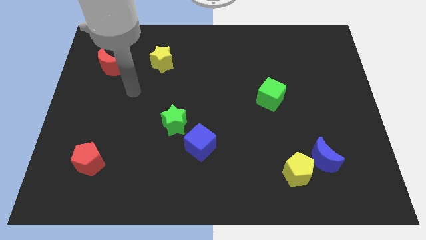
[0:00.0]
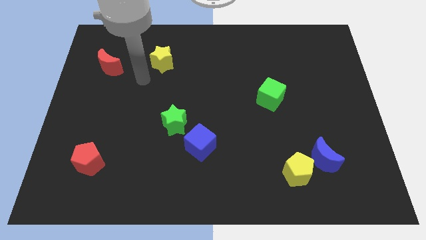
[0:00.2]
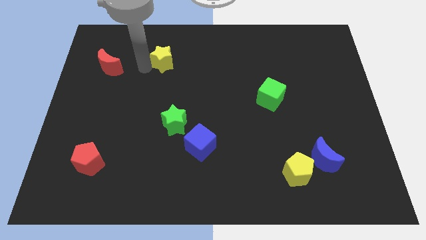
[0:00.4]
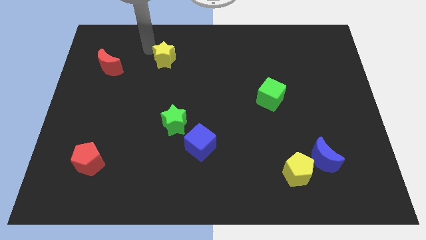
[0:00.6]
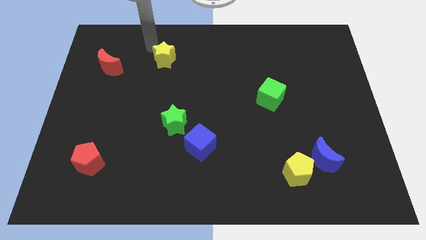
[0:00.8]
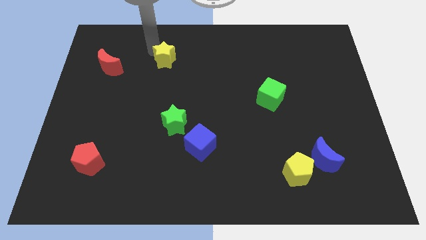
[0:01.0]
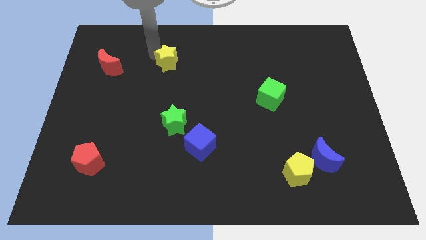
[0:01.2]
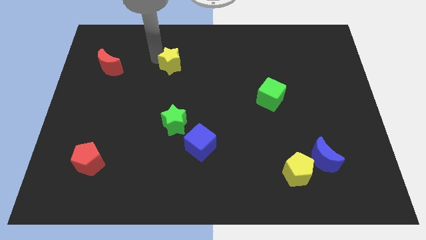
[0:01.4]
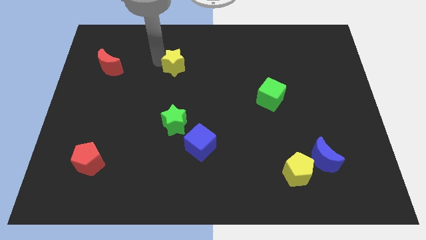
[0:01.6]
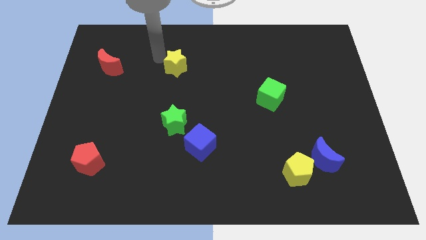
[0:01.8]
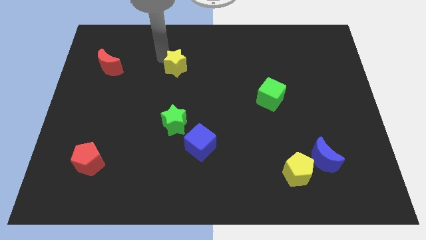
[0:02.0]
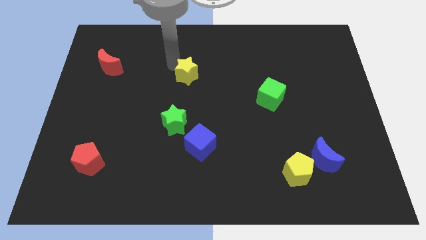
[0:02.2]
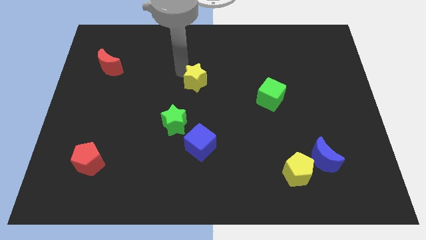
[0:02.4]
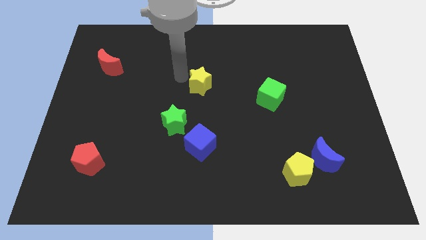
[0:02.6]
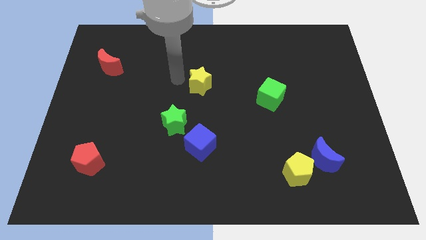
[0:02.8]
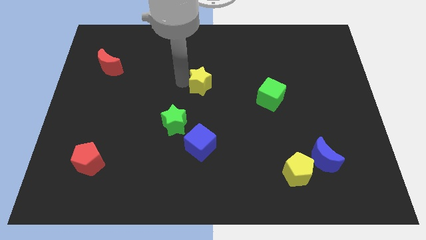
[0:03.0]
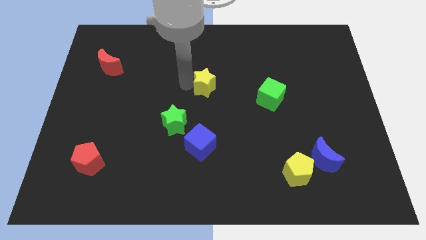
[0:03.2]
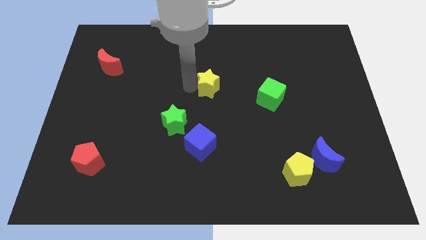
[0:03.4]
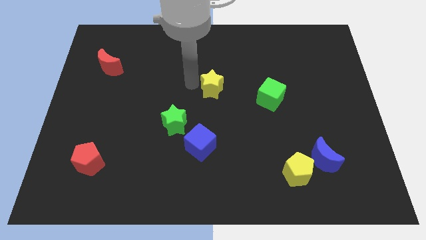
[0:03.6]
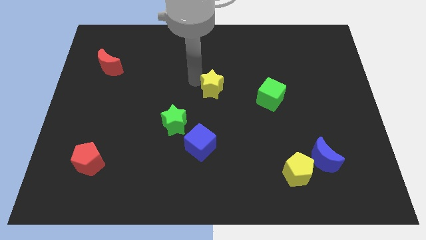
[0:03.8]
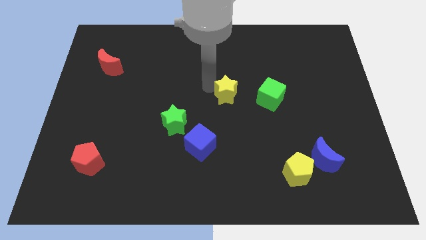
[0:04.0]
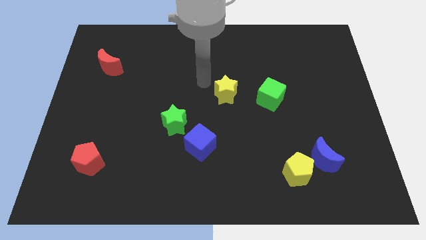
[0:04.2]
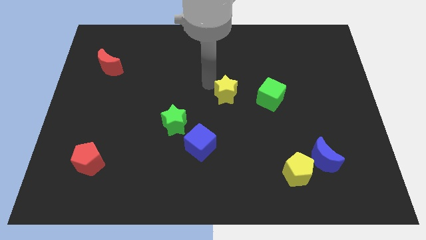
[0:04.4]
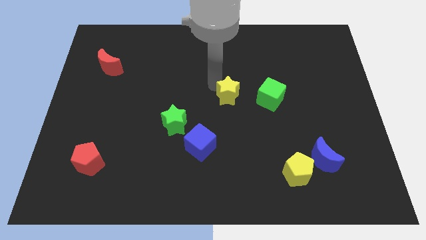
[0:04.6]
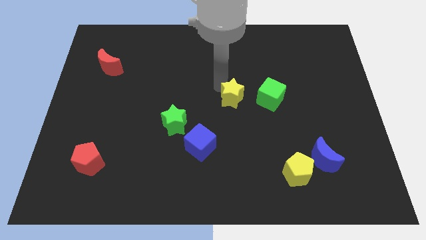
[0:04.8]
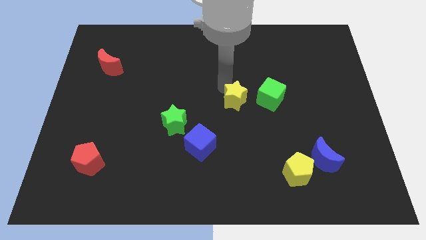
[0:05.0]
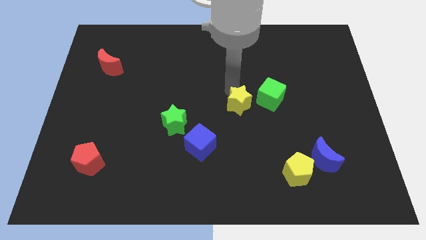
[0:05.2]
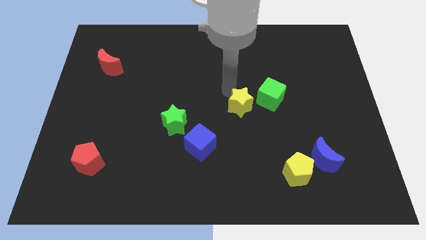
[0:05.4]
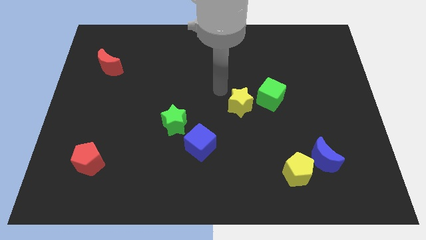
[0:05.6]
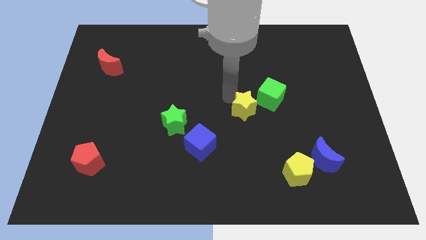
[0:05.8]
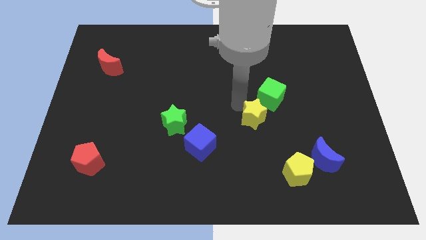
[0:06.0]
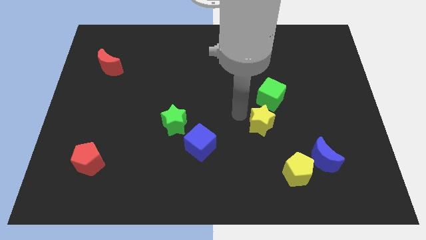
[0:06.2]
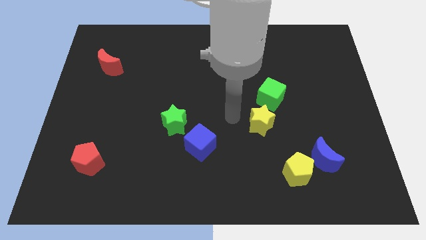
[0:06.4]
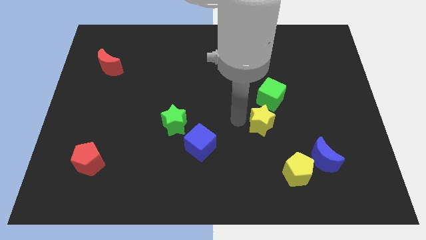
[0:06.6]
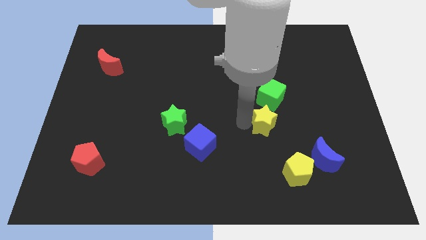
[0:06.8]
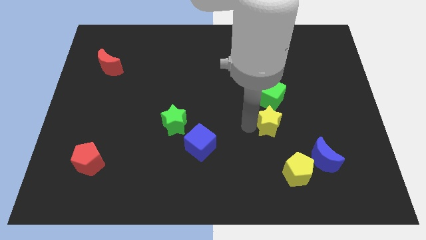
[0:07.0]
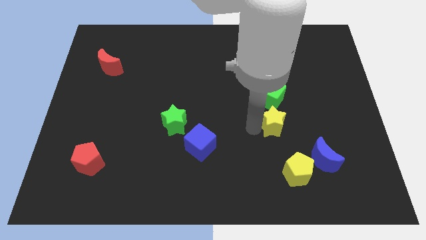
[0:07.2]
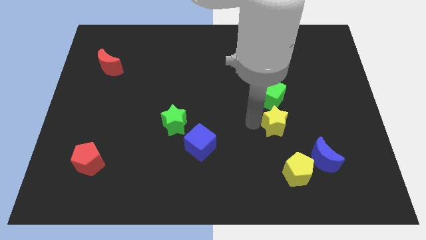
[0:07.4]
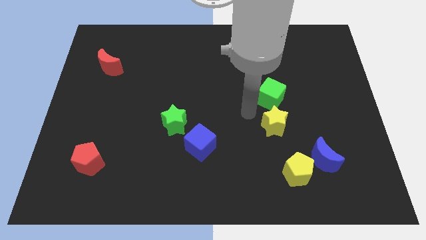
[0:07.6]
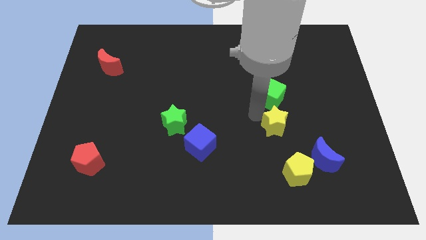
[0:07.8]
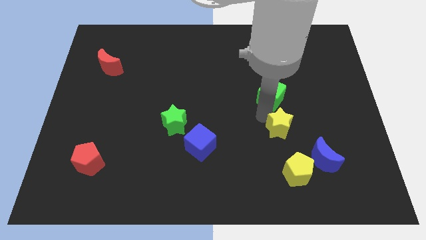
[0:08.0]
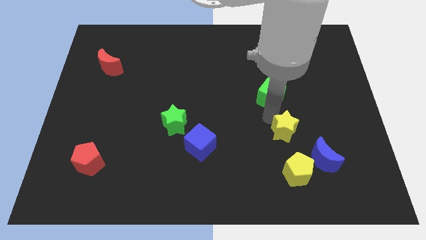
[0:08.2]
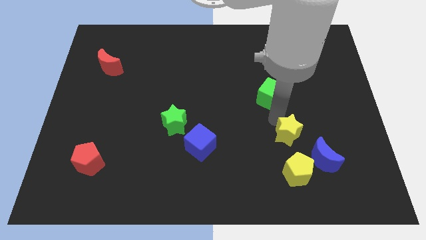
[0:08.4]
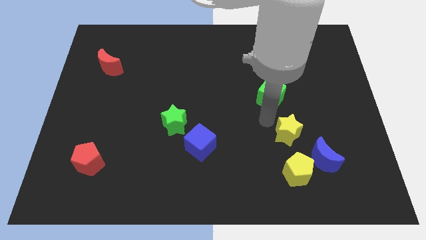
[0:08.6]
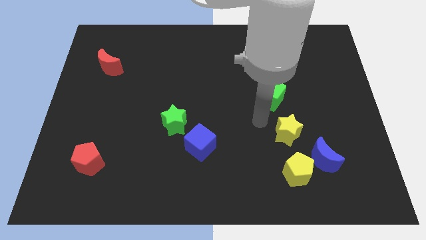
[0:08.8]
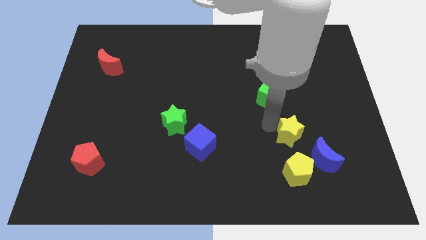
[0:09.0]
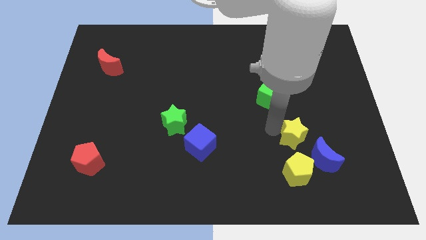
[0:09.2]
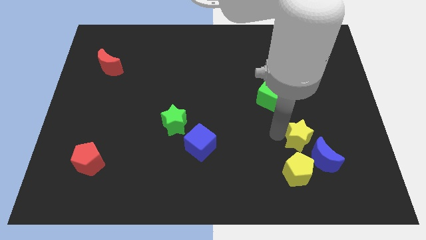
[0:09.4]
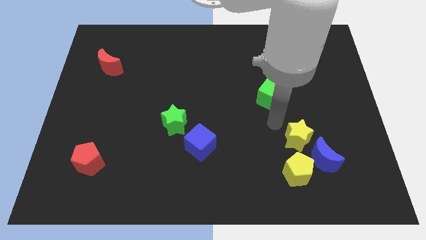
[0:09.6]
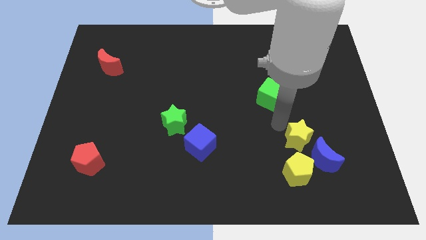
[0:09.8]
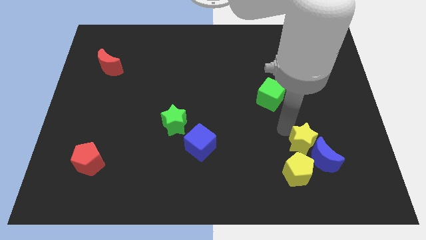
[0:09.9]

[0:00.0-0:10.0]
push the yellow star next to the blue moon

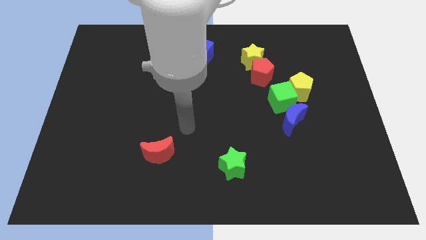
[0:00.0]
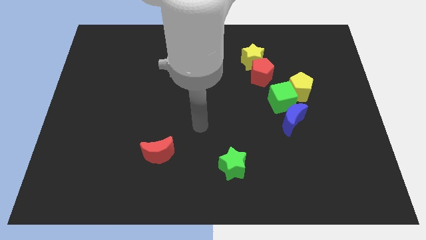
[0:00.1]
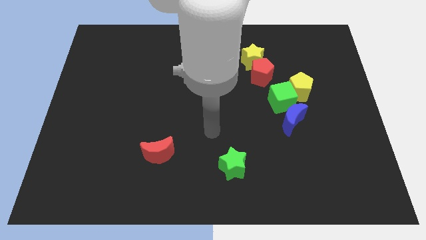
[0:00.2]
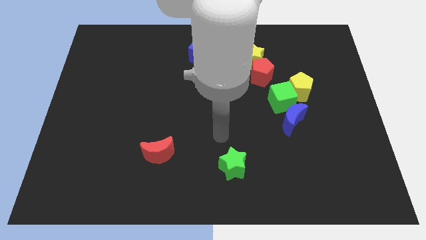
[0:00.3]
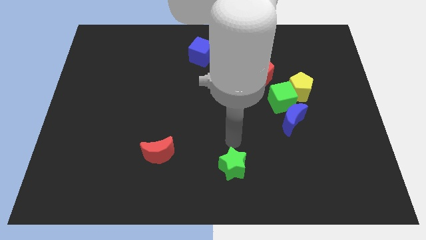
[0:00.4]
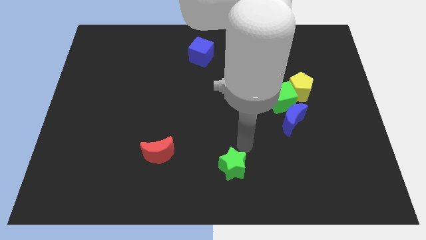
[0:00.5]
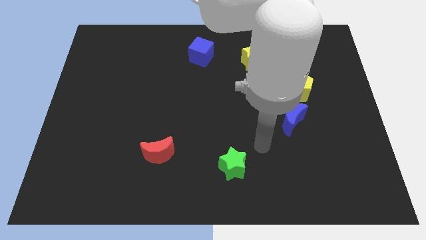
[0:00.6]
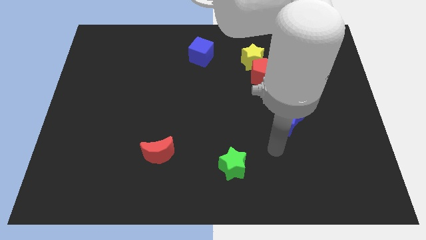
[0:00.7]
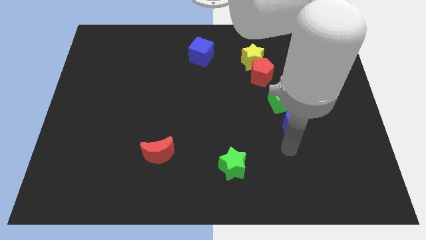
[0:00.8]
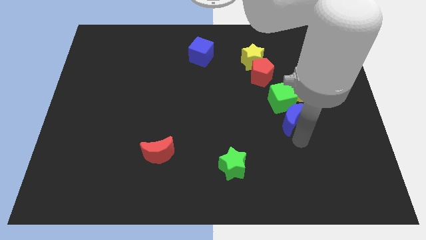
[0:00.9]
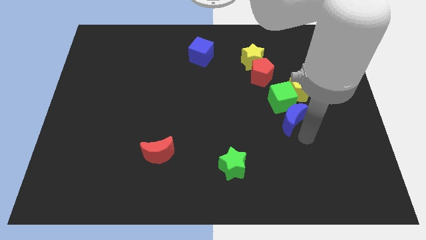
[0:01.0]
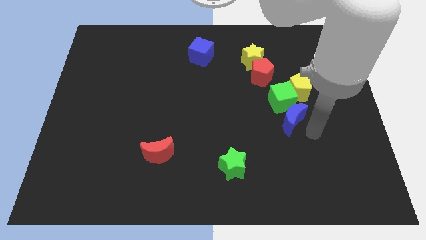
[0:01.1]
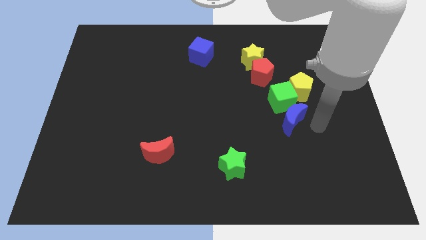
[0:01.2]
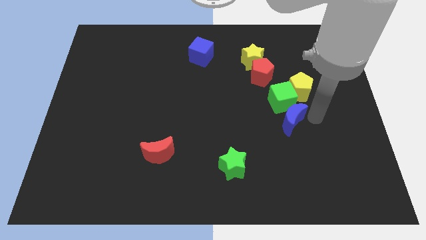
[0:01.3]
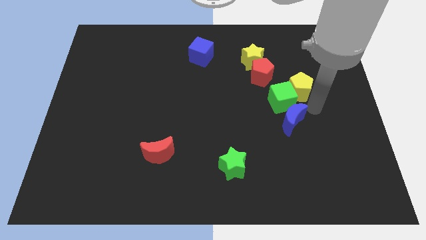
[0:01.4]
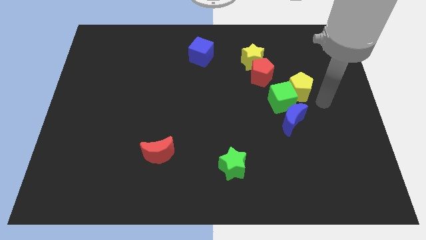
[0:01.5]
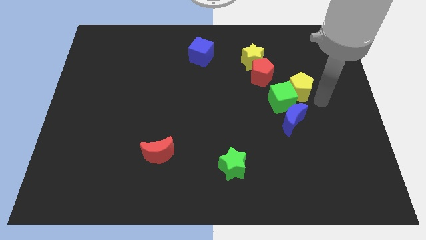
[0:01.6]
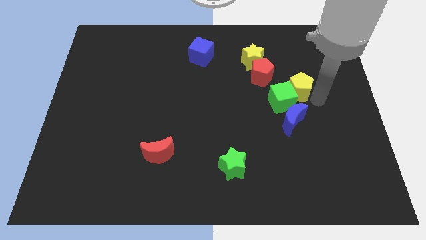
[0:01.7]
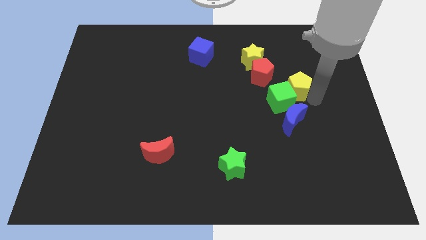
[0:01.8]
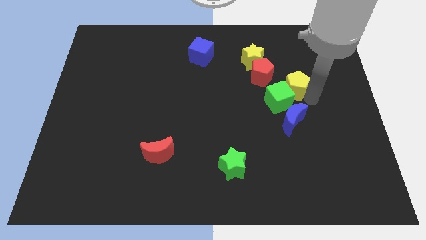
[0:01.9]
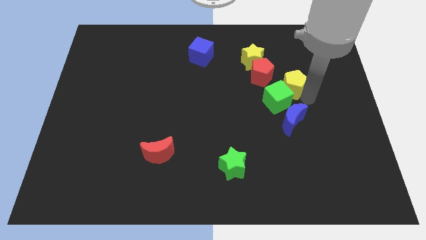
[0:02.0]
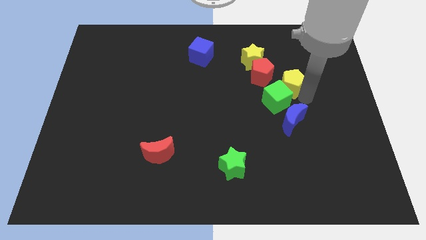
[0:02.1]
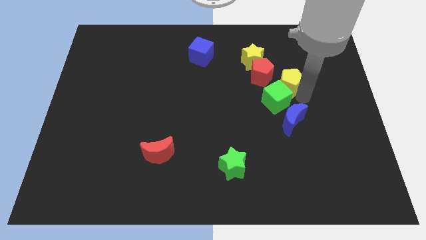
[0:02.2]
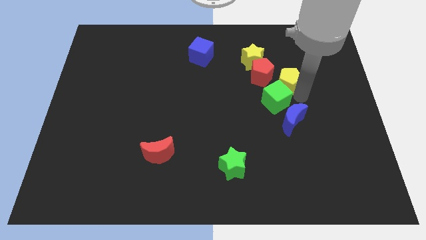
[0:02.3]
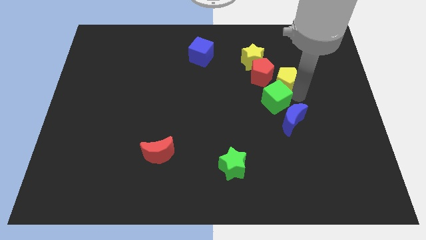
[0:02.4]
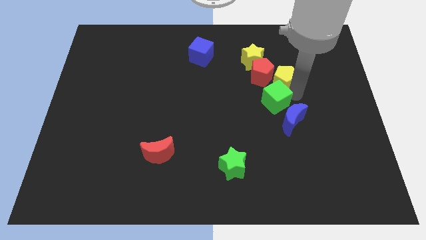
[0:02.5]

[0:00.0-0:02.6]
push the yellow pentagon close to the red pentagon
